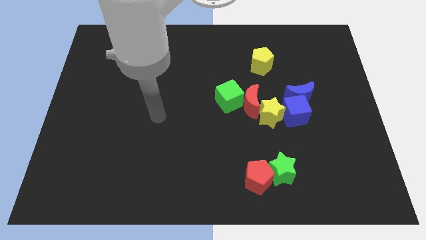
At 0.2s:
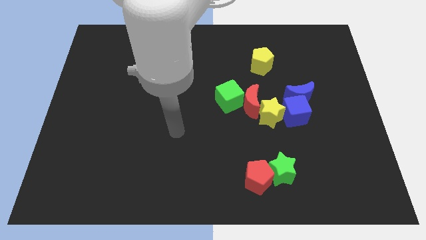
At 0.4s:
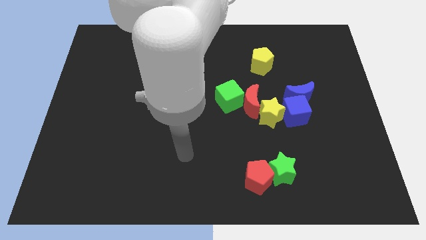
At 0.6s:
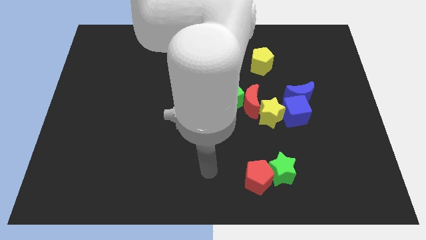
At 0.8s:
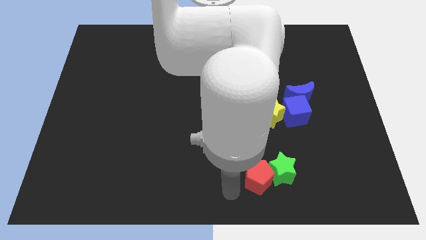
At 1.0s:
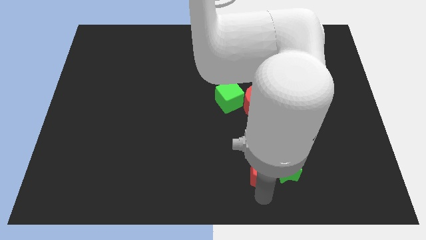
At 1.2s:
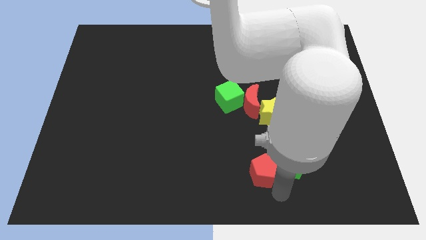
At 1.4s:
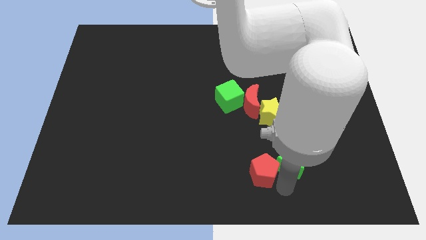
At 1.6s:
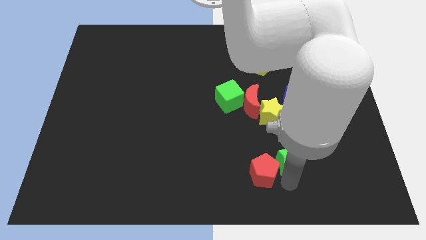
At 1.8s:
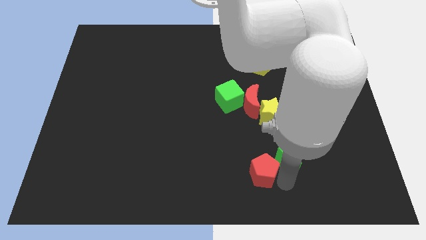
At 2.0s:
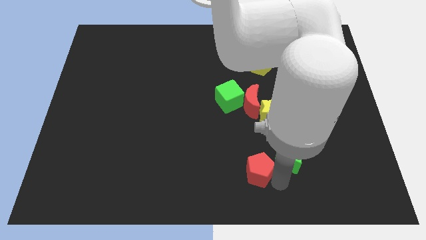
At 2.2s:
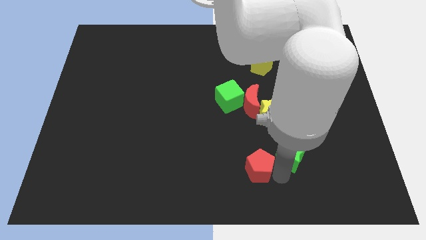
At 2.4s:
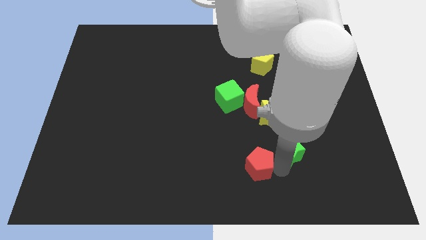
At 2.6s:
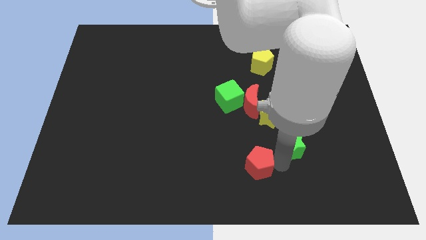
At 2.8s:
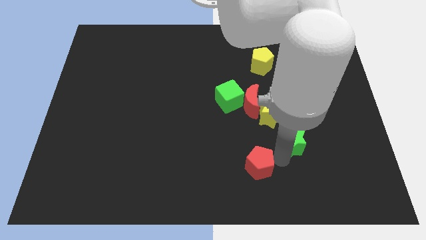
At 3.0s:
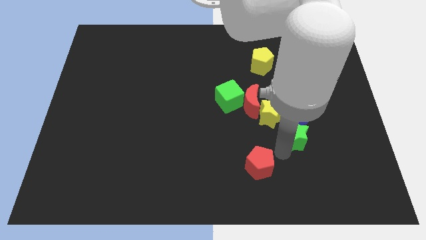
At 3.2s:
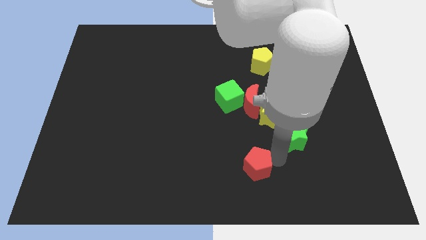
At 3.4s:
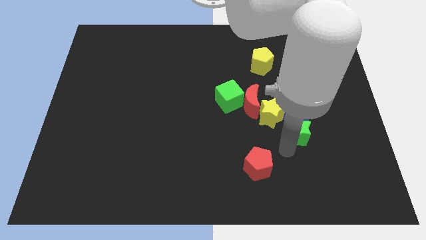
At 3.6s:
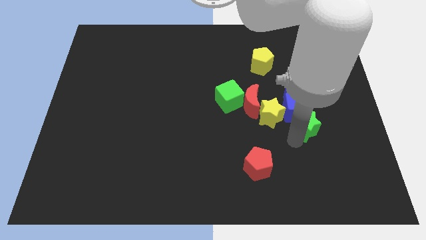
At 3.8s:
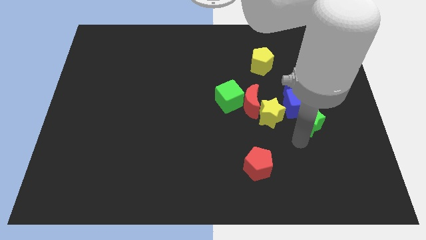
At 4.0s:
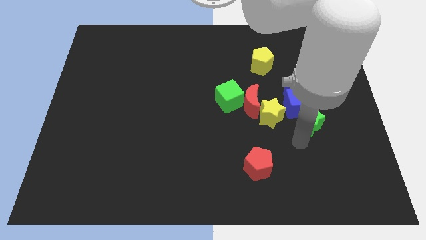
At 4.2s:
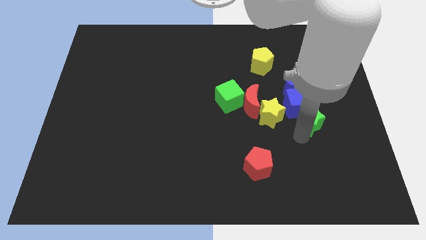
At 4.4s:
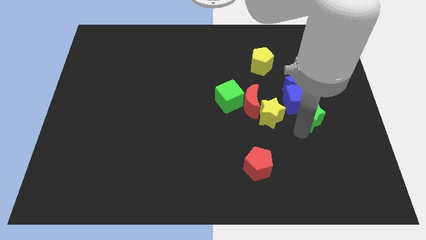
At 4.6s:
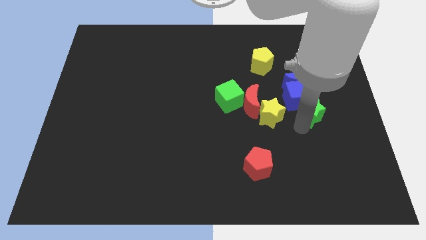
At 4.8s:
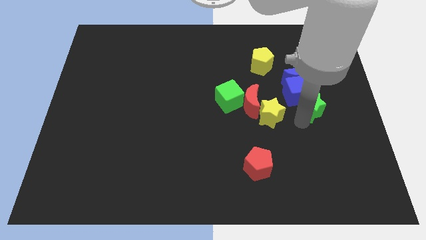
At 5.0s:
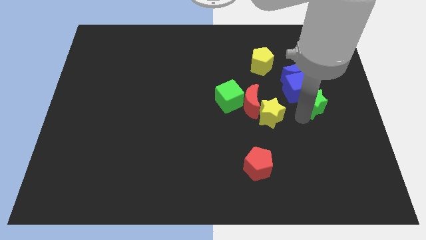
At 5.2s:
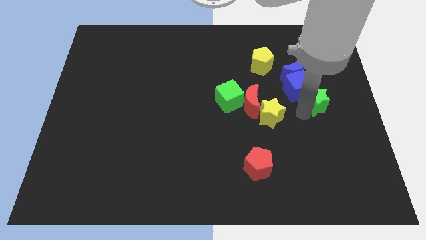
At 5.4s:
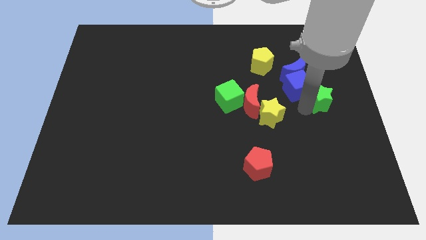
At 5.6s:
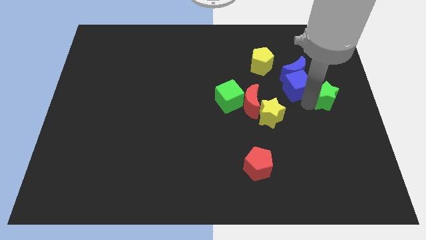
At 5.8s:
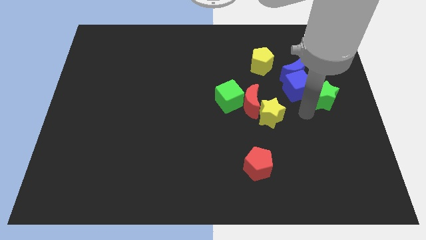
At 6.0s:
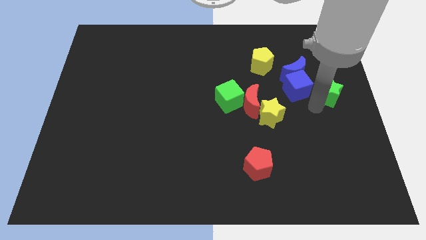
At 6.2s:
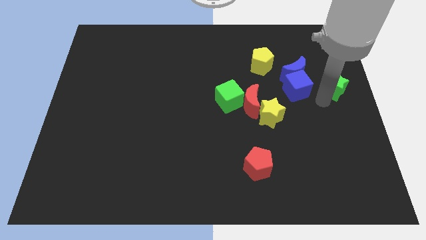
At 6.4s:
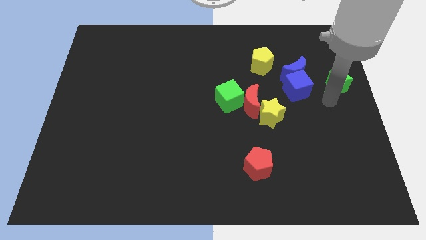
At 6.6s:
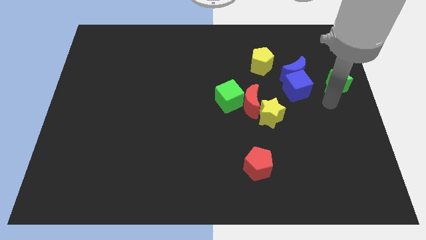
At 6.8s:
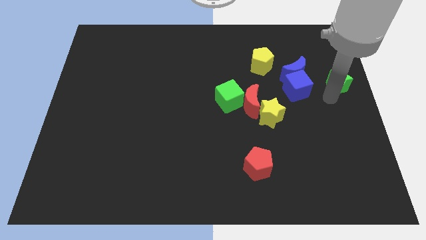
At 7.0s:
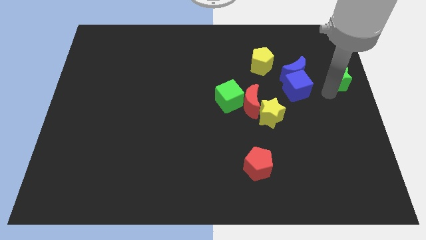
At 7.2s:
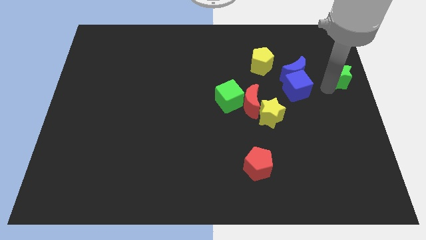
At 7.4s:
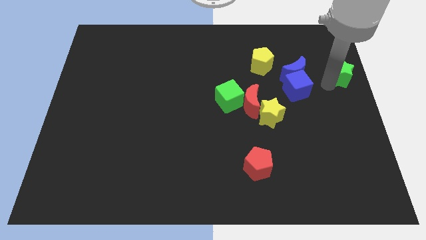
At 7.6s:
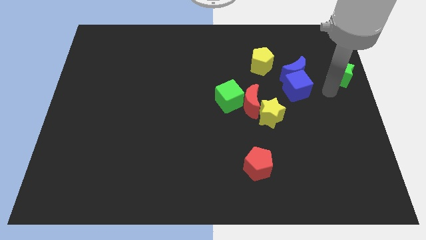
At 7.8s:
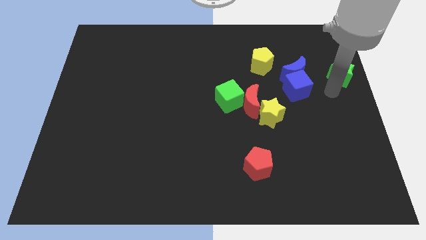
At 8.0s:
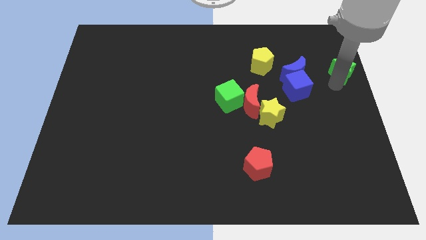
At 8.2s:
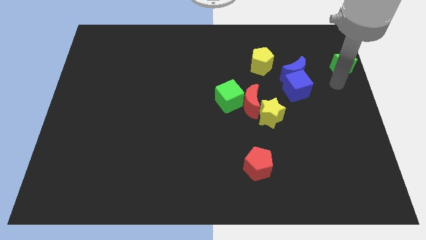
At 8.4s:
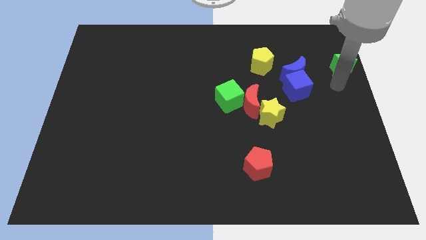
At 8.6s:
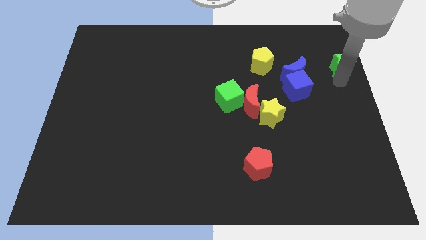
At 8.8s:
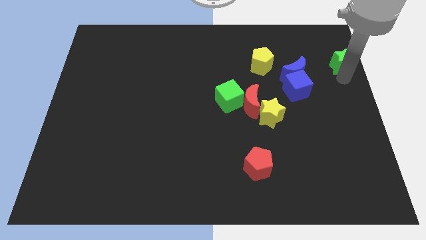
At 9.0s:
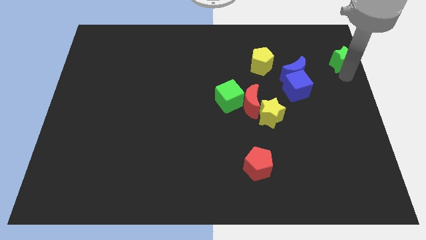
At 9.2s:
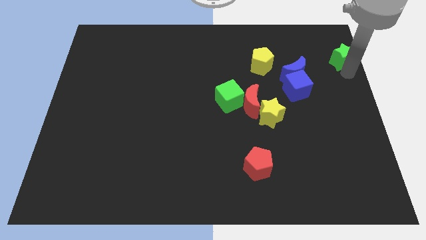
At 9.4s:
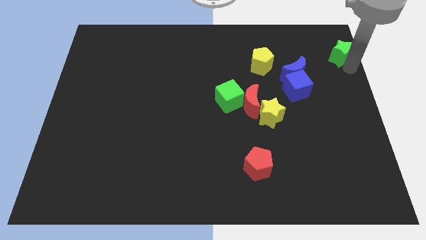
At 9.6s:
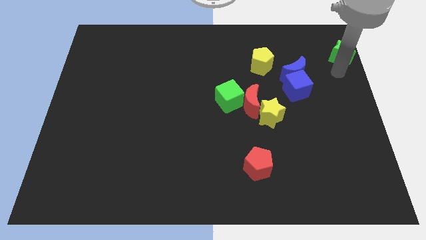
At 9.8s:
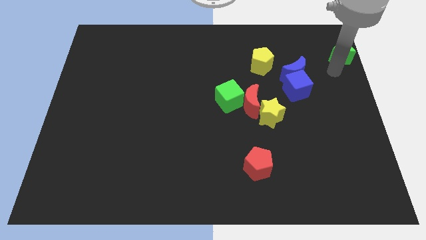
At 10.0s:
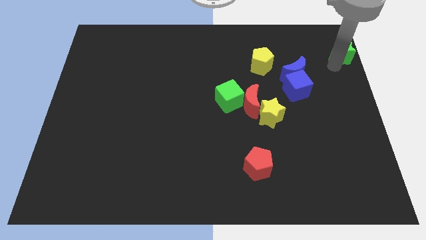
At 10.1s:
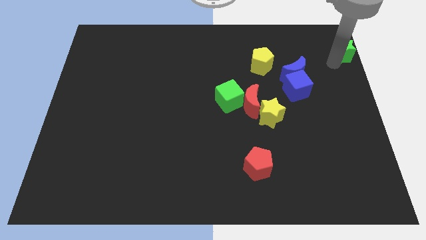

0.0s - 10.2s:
push the green star to the upper right corner

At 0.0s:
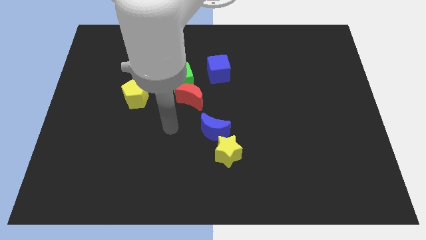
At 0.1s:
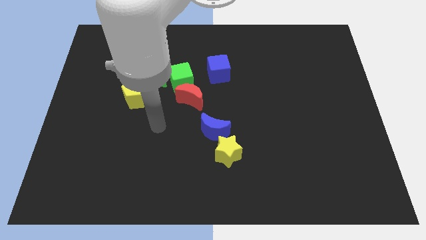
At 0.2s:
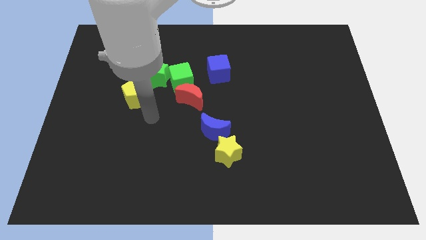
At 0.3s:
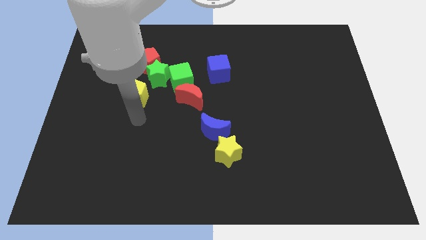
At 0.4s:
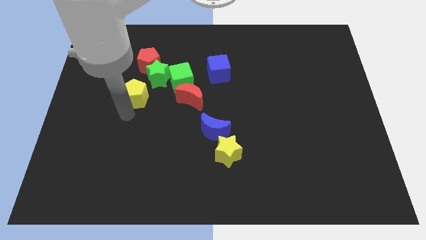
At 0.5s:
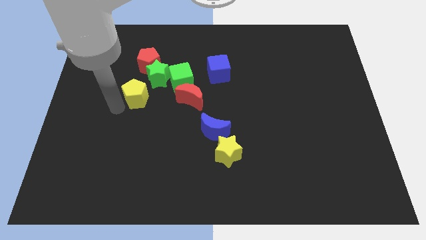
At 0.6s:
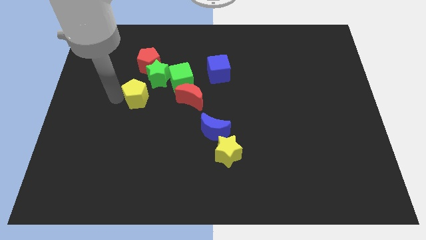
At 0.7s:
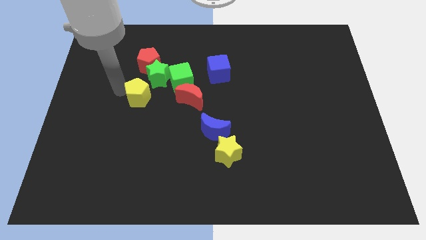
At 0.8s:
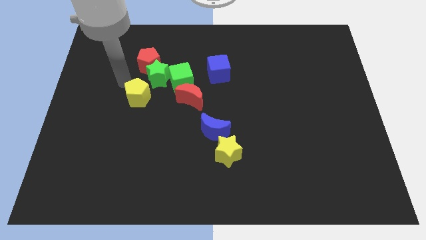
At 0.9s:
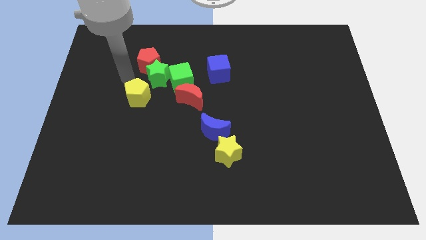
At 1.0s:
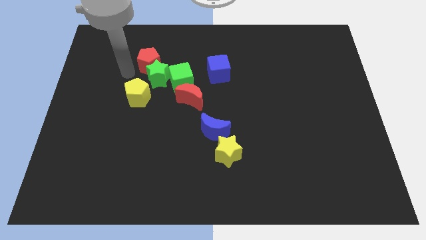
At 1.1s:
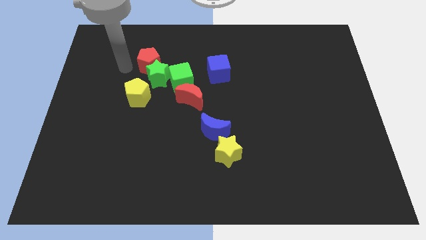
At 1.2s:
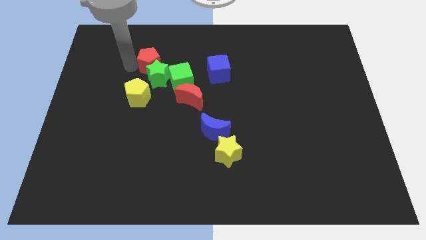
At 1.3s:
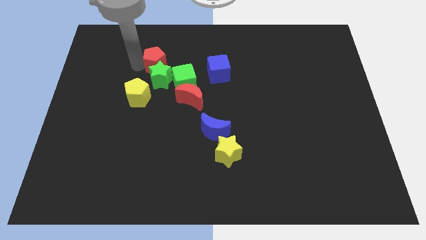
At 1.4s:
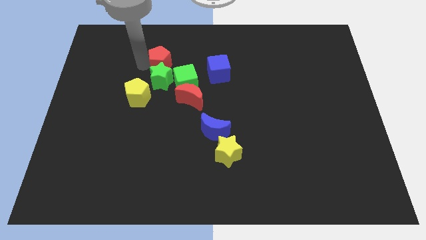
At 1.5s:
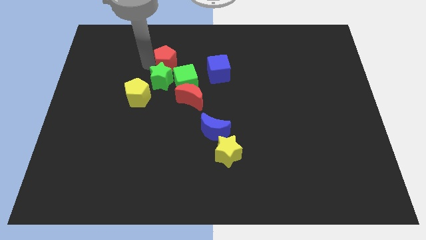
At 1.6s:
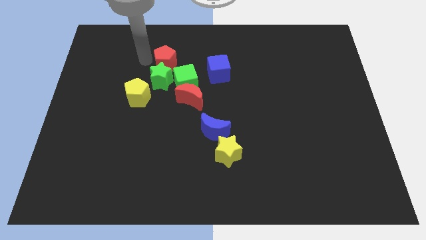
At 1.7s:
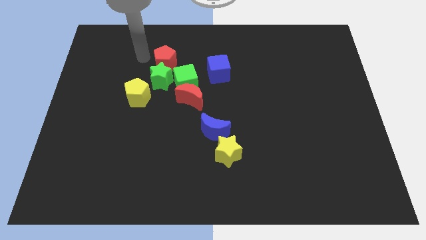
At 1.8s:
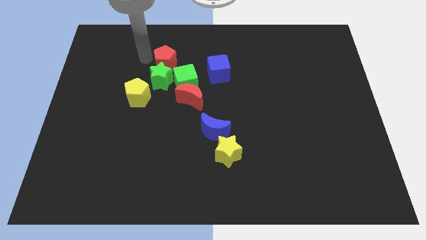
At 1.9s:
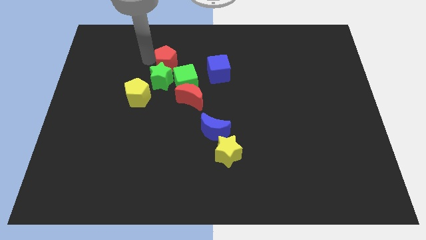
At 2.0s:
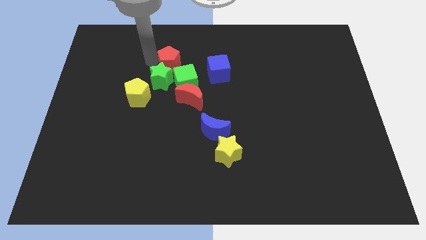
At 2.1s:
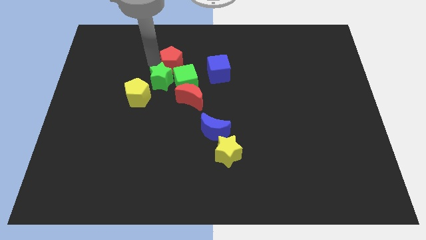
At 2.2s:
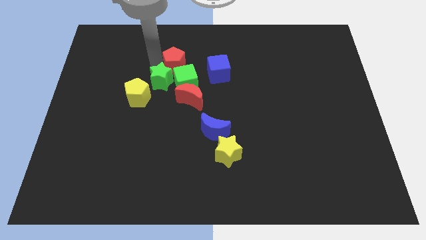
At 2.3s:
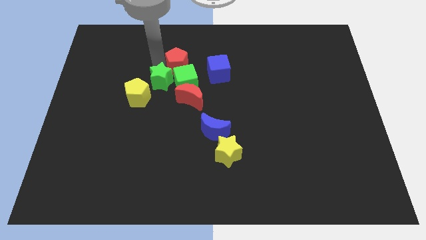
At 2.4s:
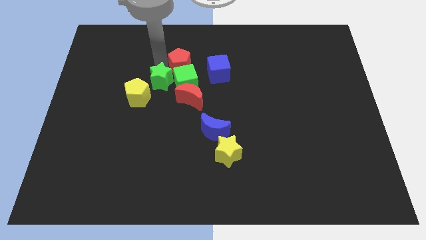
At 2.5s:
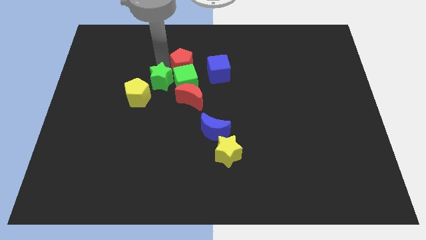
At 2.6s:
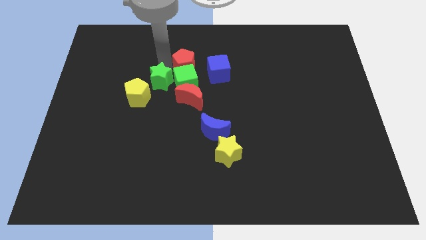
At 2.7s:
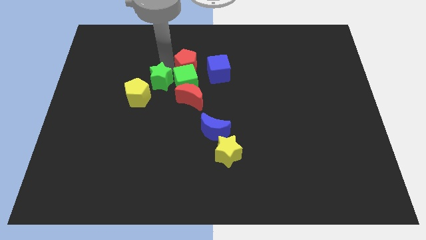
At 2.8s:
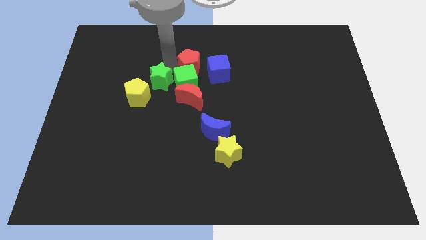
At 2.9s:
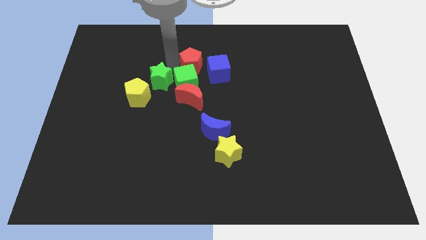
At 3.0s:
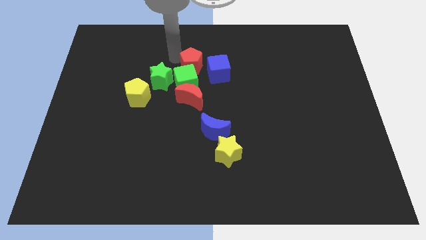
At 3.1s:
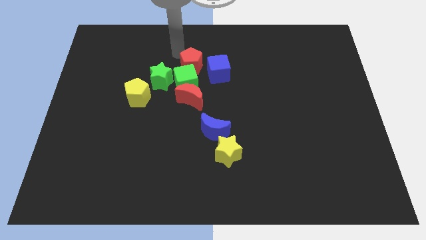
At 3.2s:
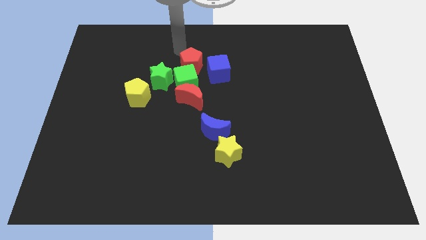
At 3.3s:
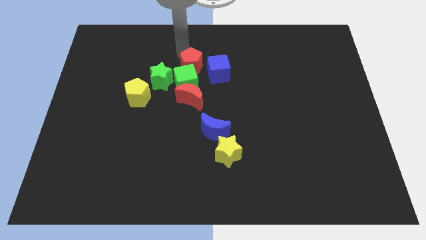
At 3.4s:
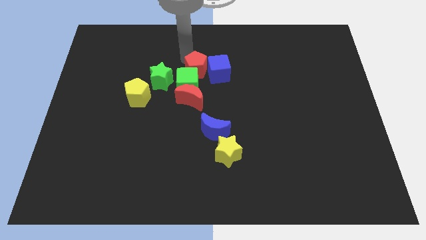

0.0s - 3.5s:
move the red pentagon to the center
